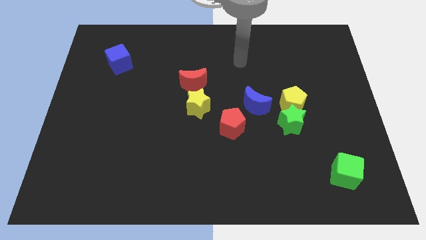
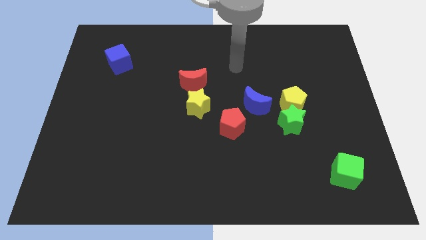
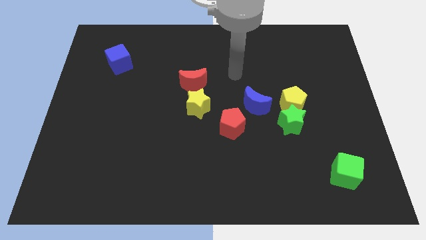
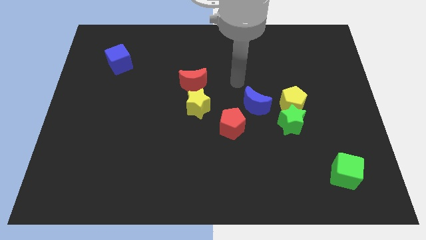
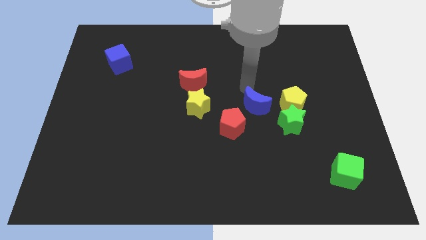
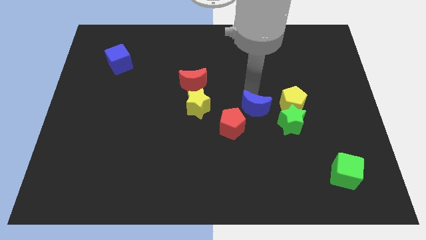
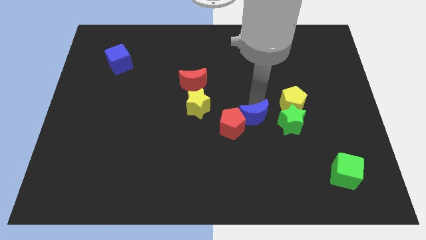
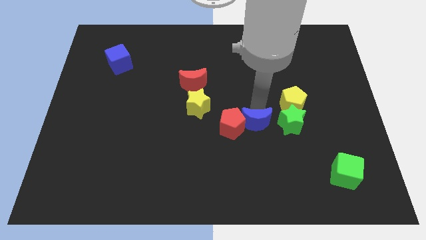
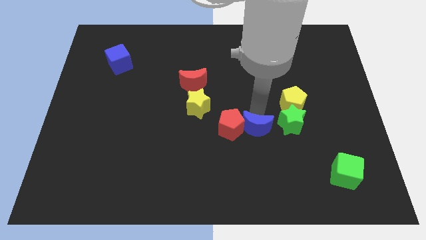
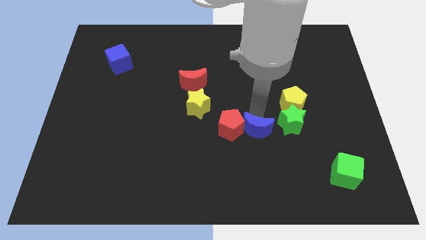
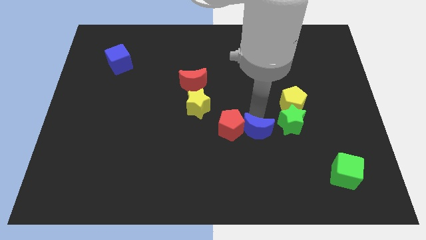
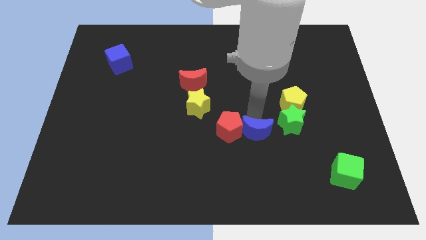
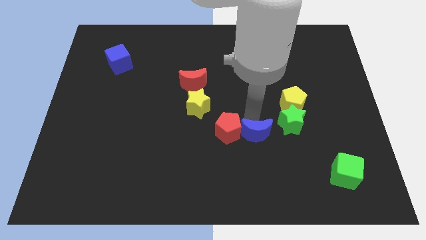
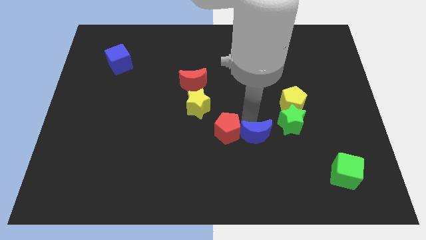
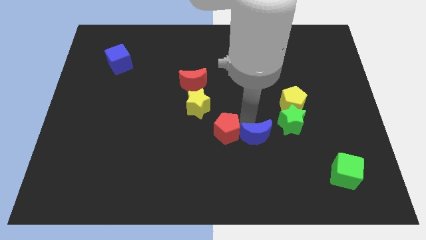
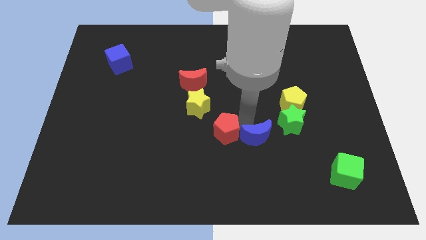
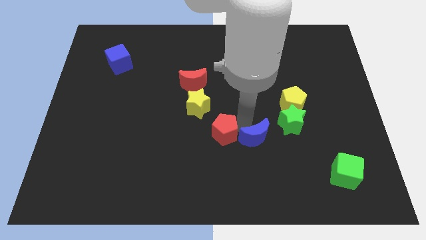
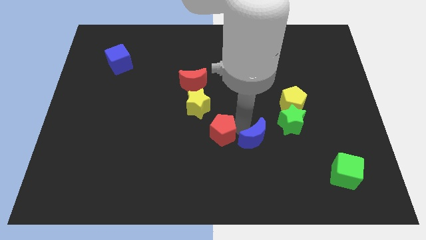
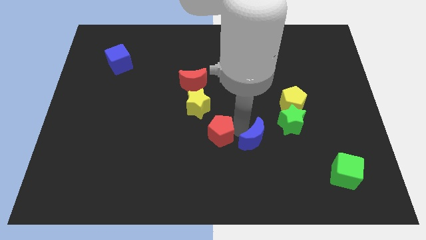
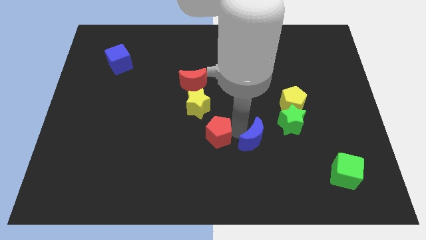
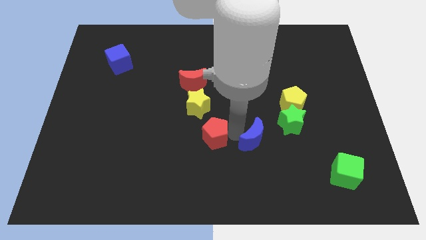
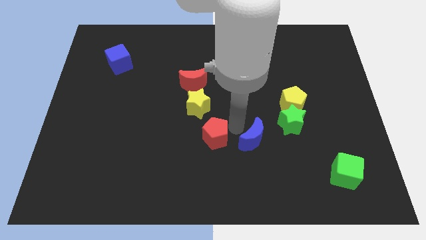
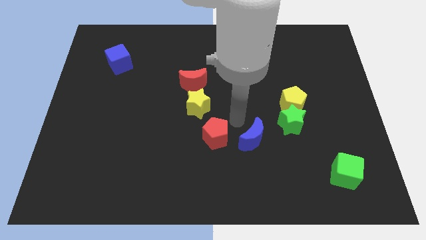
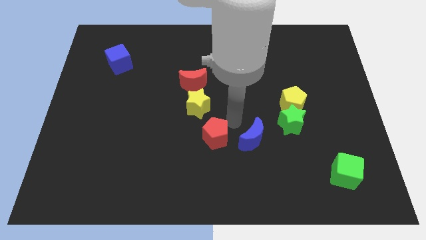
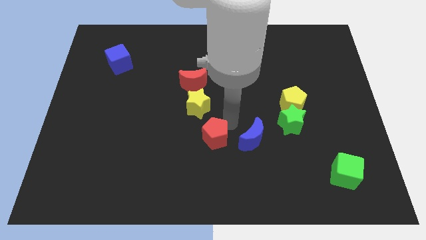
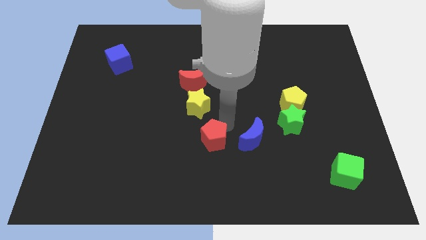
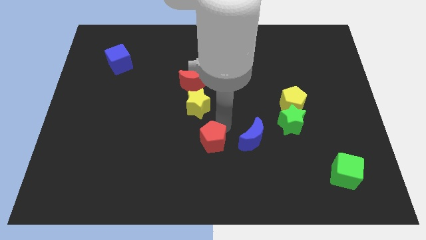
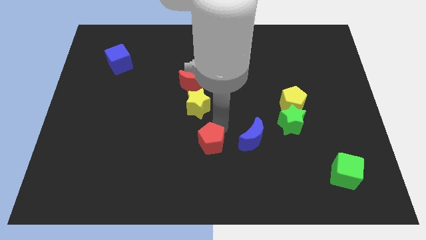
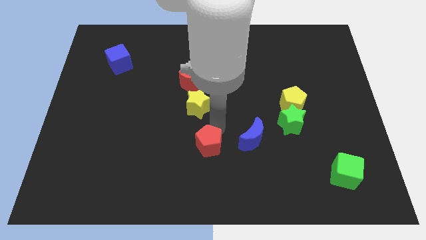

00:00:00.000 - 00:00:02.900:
push the red pentagon diagonally down and to the left a little

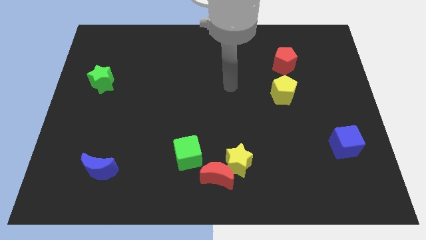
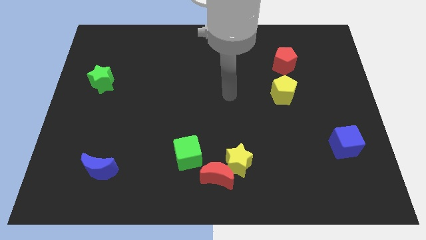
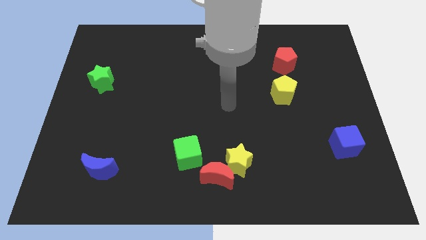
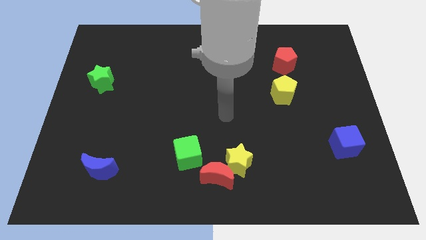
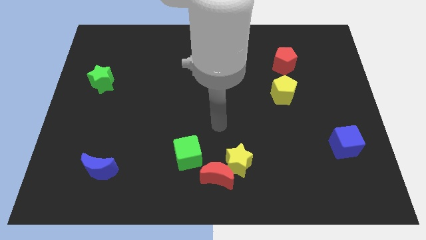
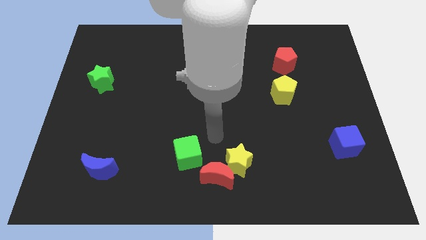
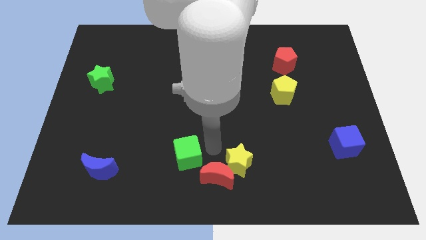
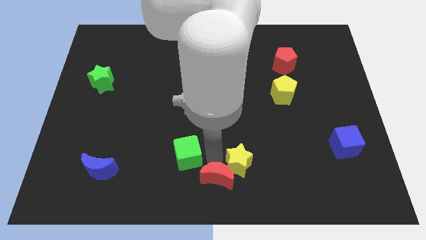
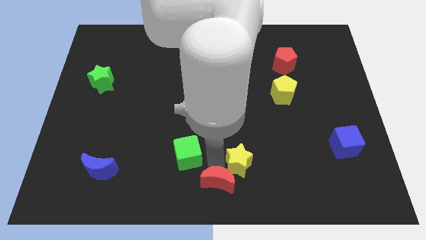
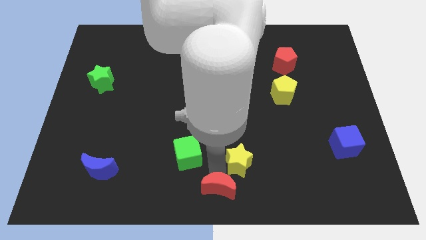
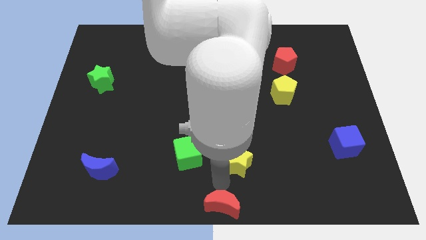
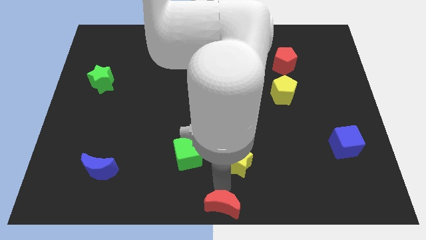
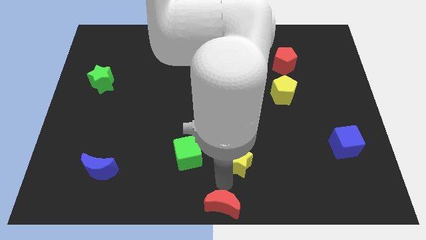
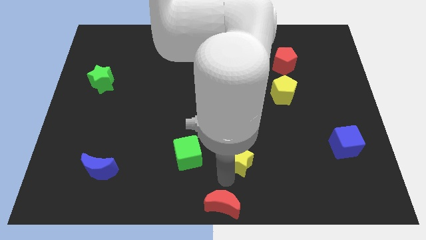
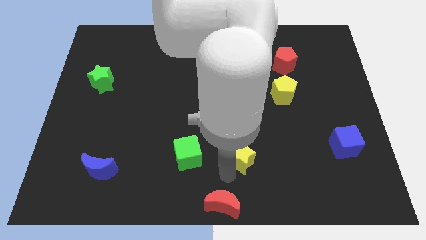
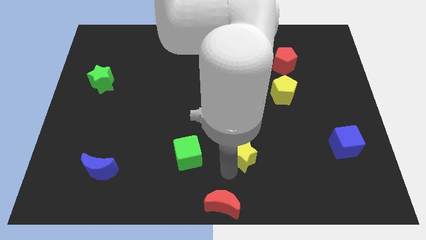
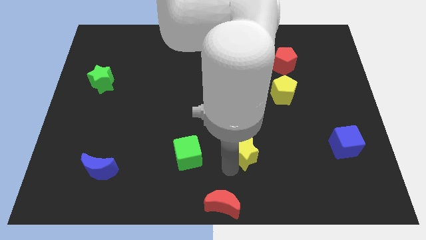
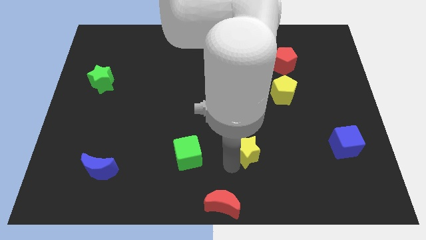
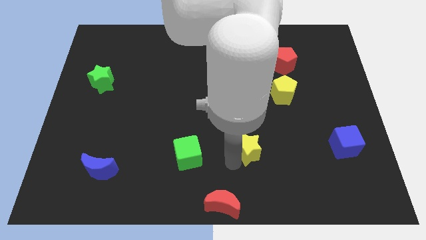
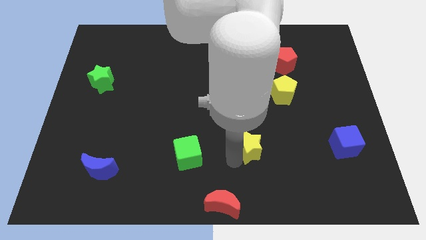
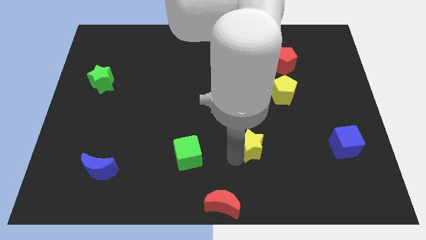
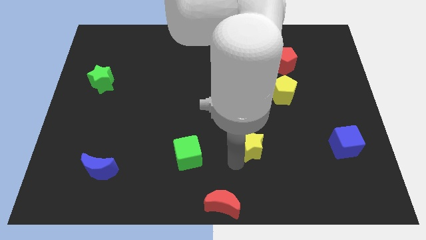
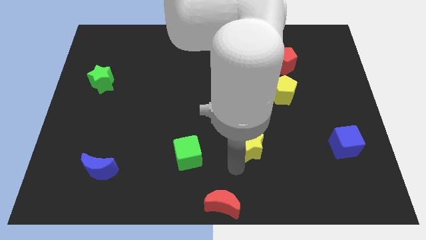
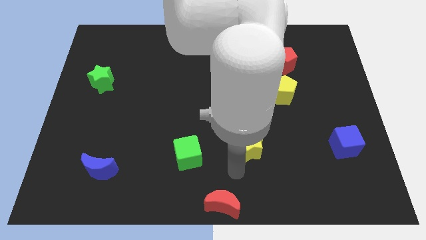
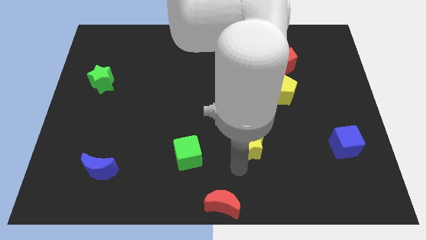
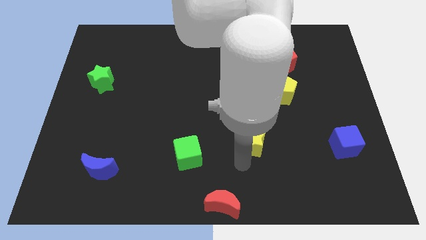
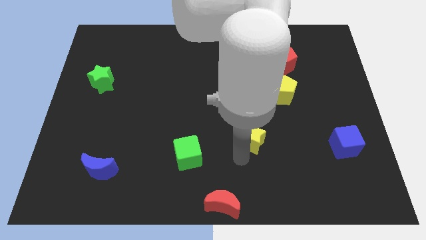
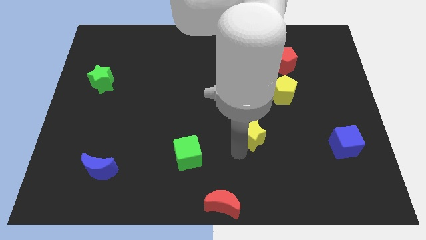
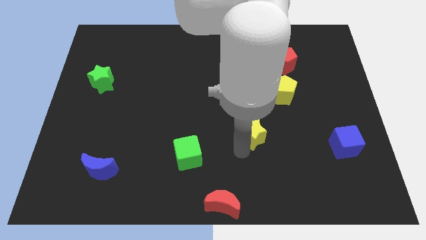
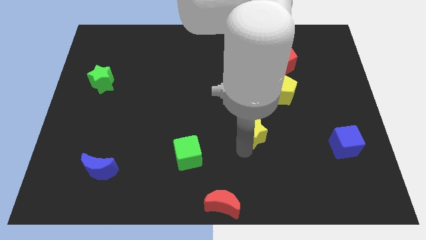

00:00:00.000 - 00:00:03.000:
move the yellow star a little bit diagonally upwards and to the right

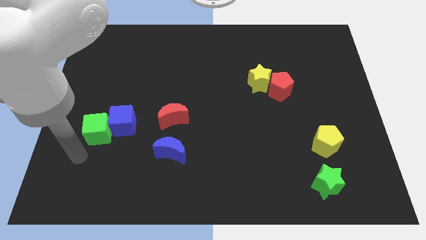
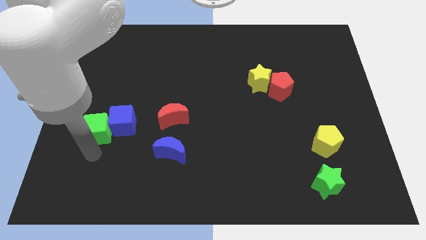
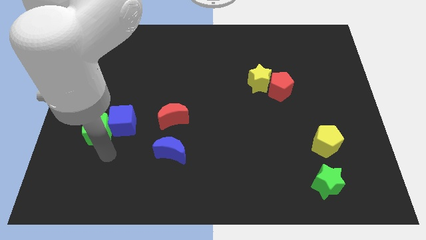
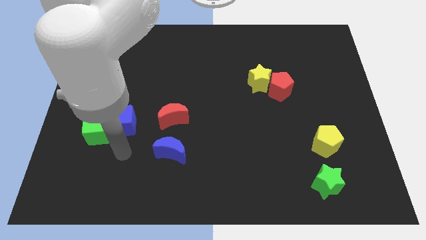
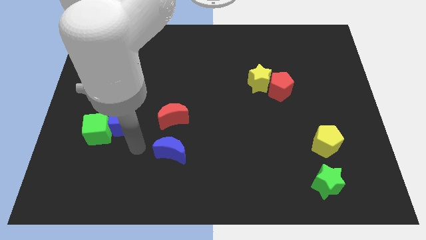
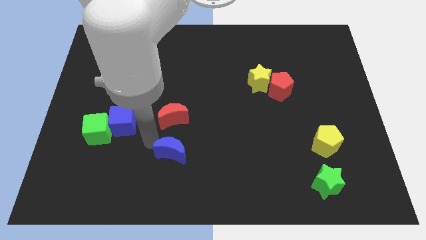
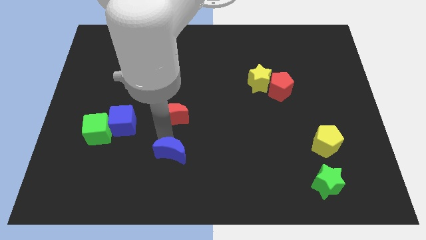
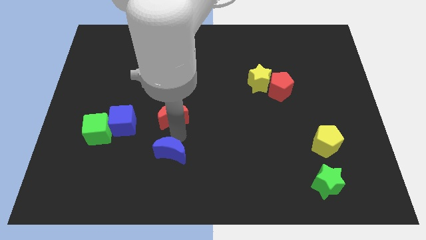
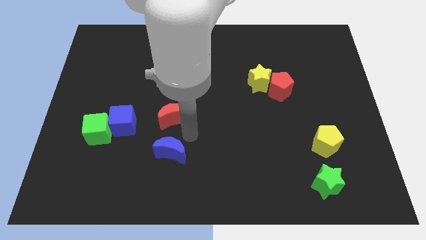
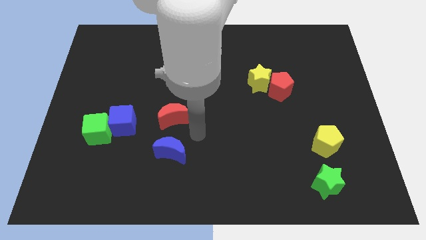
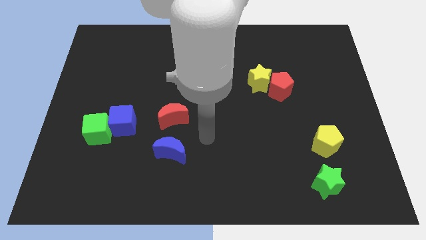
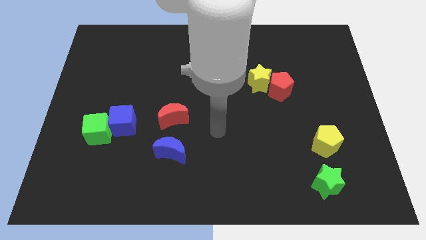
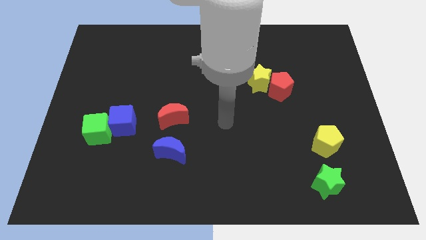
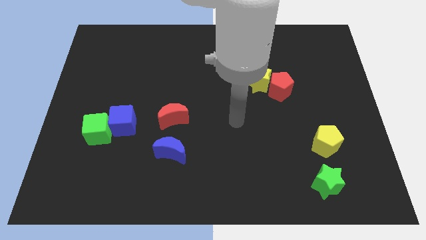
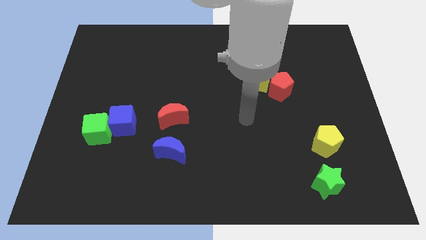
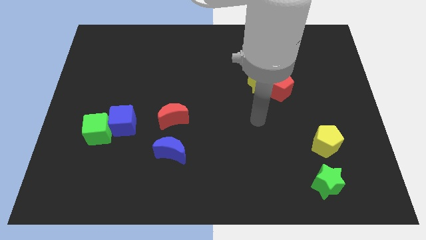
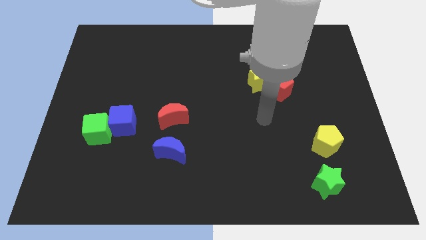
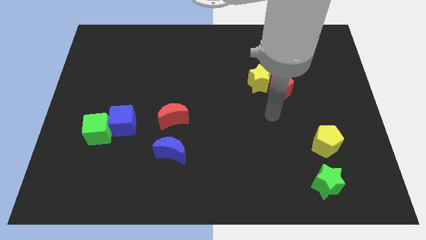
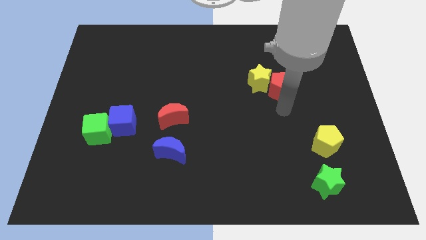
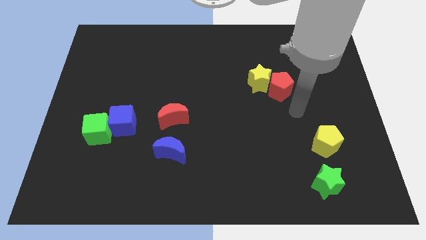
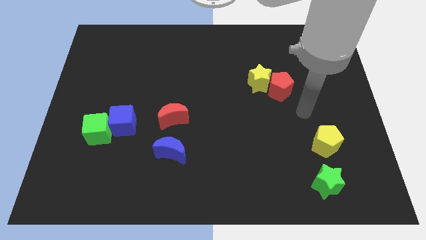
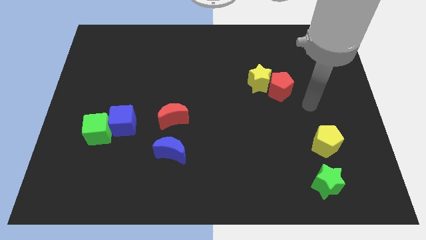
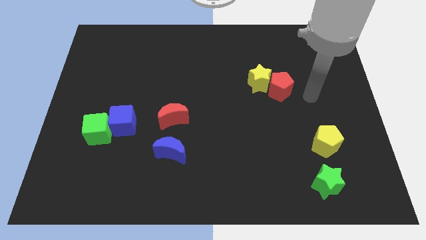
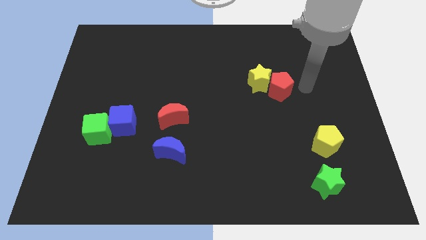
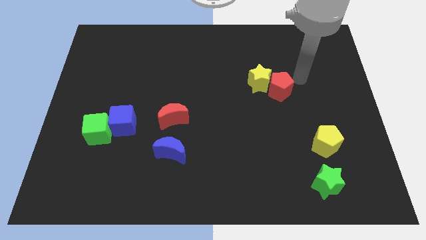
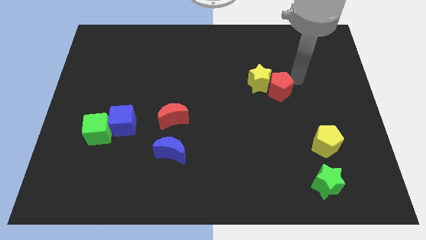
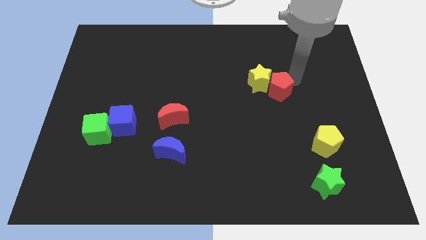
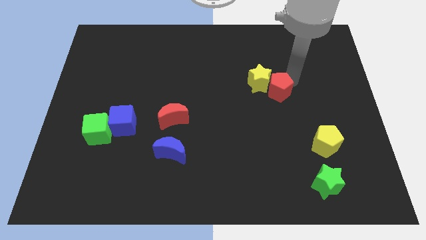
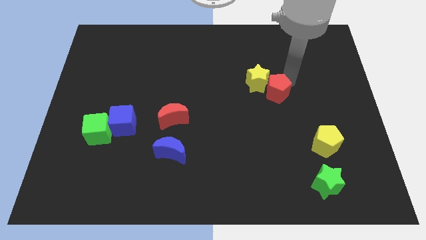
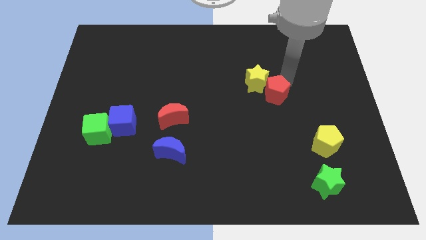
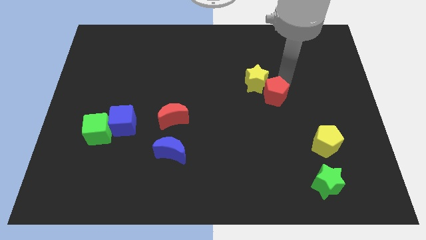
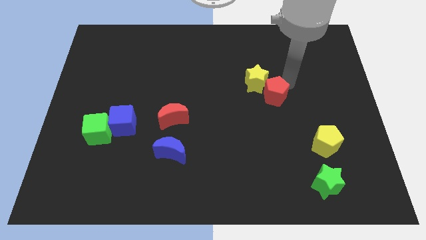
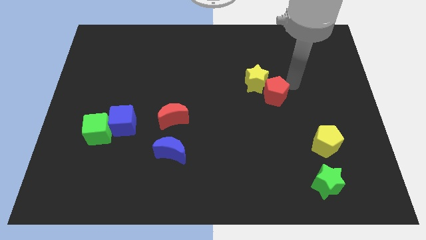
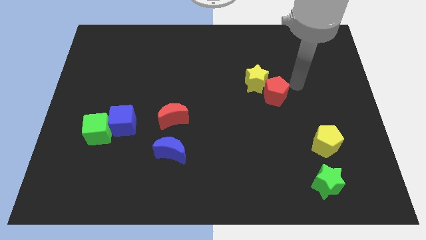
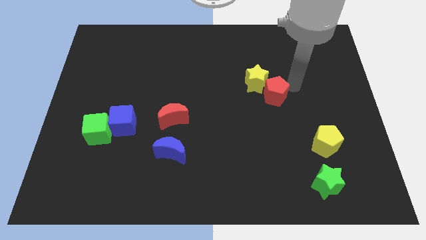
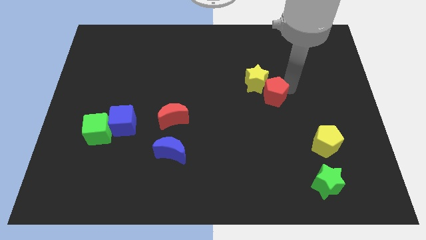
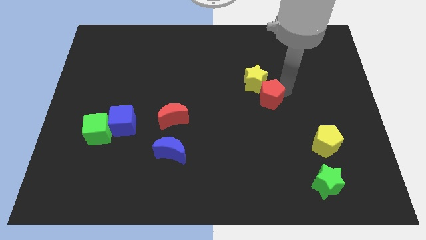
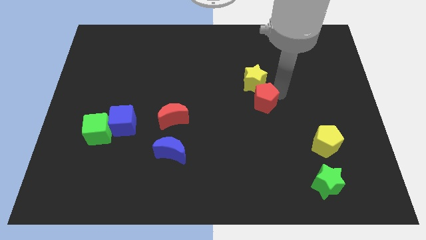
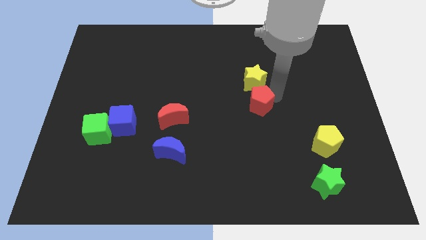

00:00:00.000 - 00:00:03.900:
slightly push the red pentagon downwards and to the left
